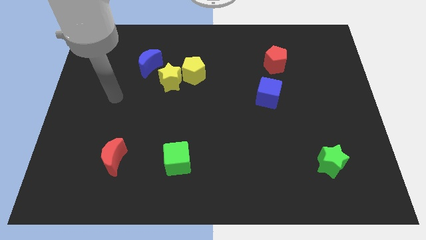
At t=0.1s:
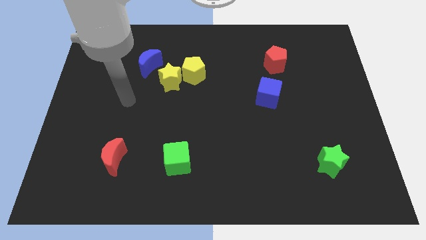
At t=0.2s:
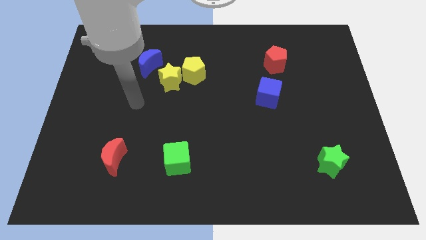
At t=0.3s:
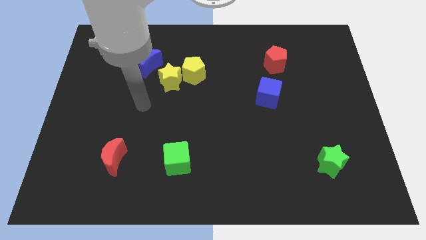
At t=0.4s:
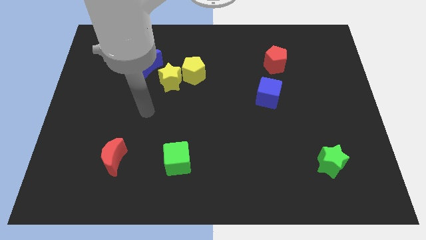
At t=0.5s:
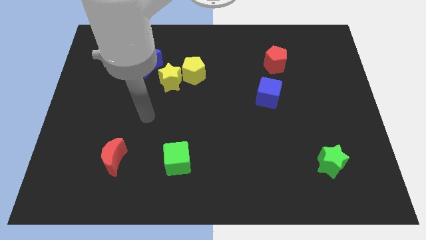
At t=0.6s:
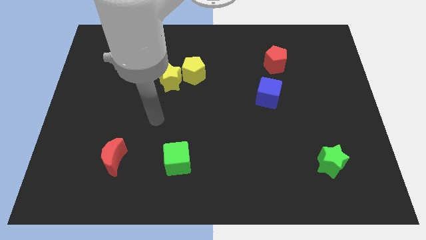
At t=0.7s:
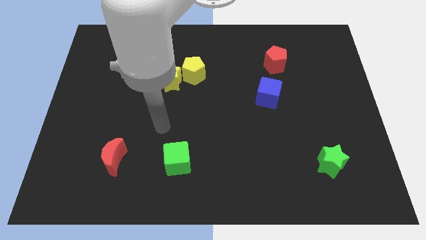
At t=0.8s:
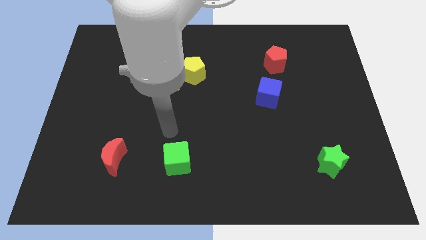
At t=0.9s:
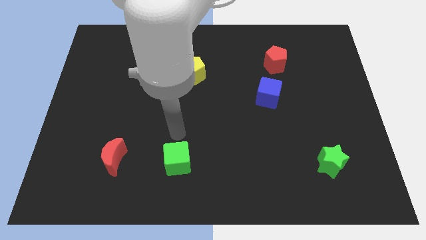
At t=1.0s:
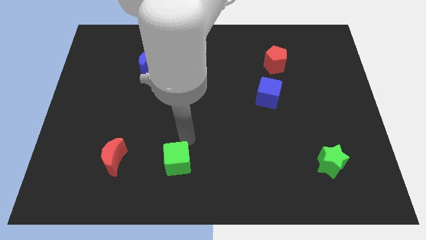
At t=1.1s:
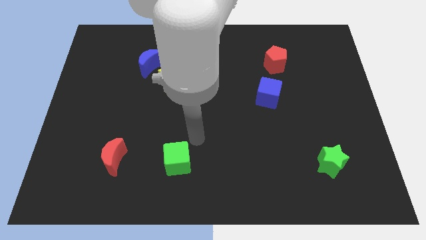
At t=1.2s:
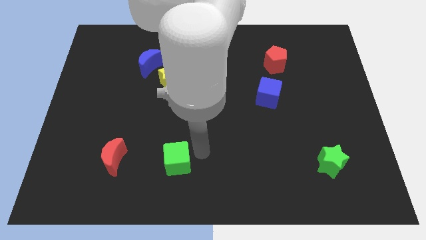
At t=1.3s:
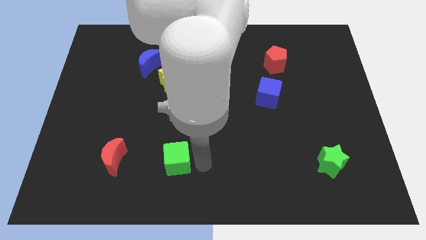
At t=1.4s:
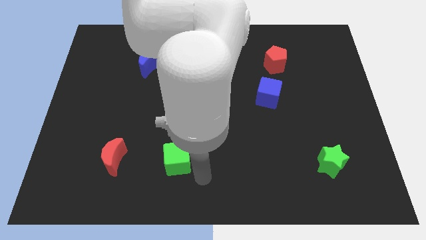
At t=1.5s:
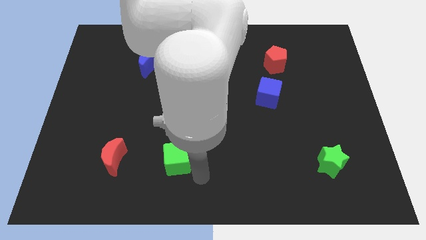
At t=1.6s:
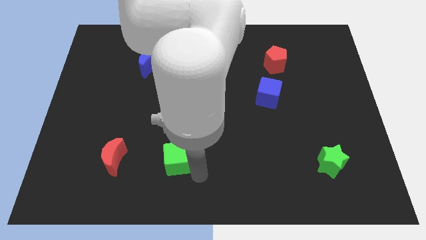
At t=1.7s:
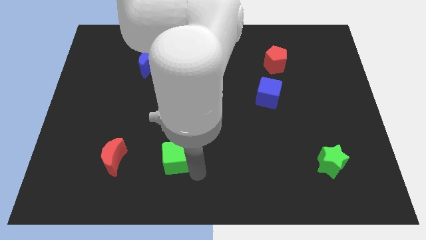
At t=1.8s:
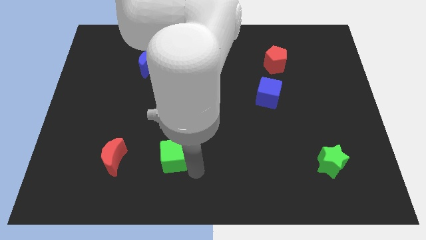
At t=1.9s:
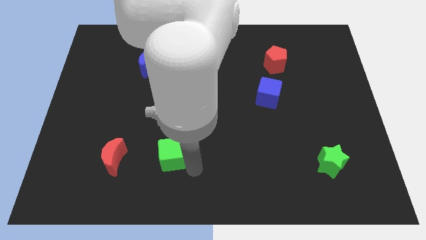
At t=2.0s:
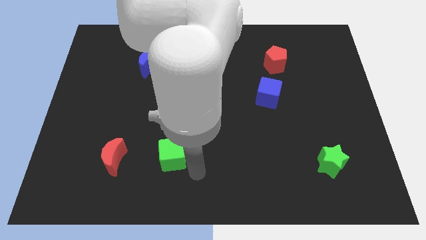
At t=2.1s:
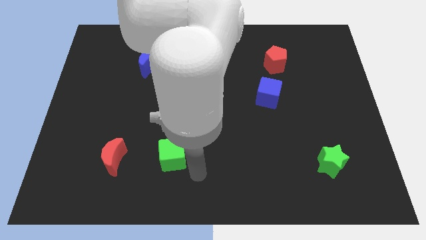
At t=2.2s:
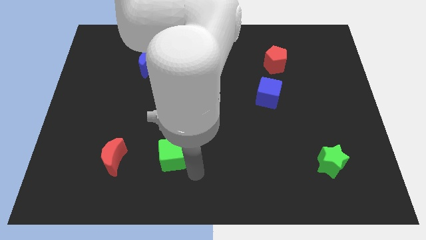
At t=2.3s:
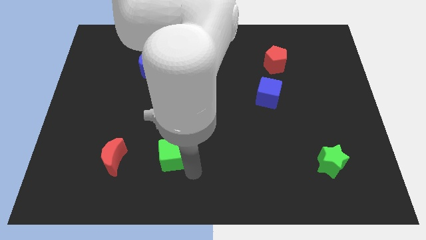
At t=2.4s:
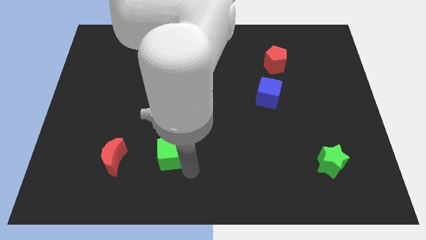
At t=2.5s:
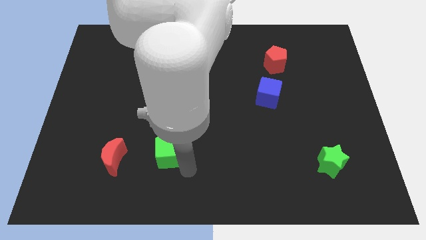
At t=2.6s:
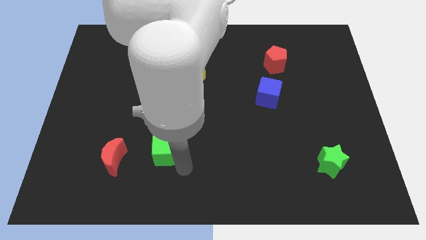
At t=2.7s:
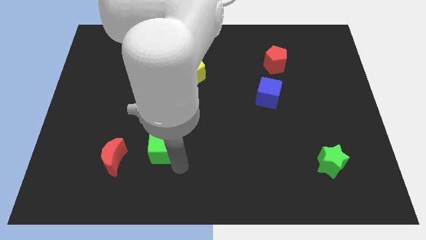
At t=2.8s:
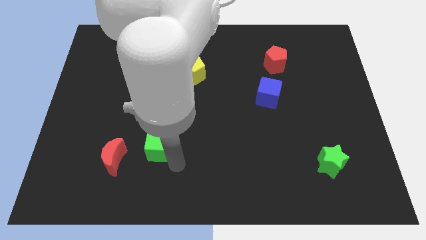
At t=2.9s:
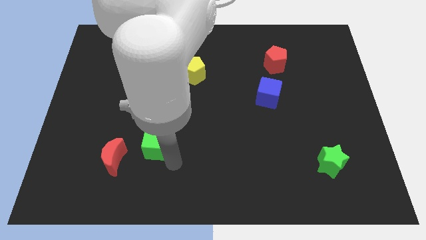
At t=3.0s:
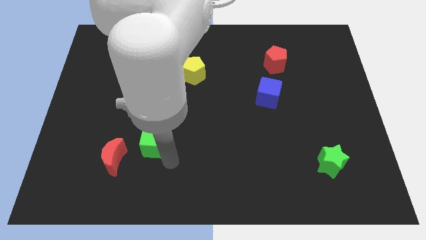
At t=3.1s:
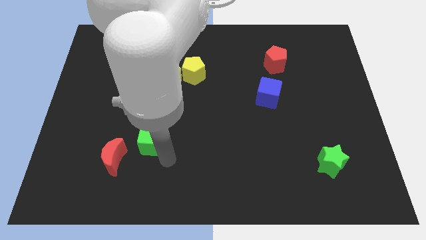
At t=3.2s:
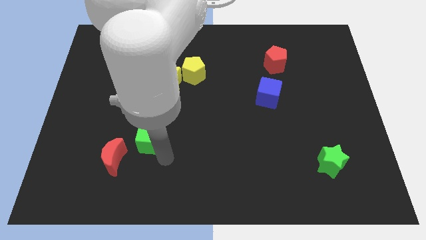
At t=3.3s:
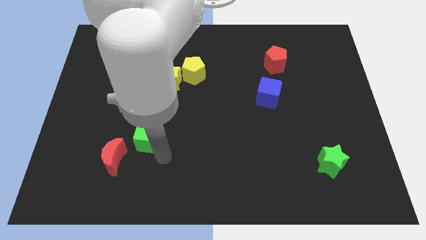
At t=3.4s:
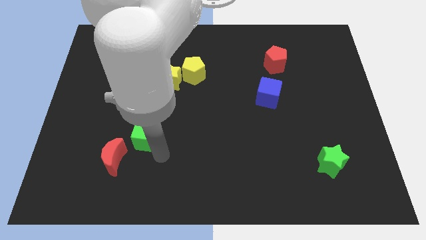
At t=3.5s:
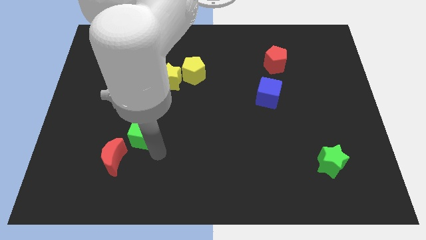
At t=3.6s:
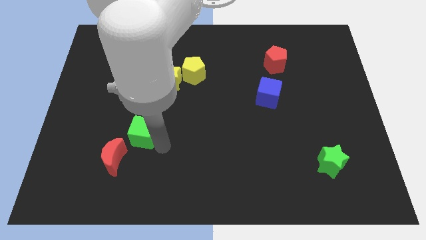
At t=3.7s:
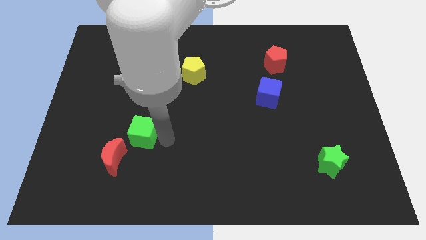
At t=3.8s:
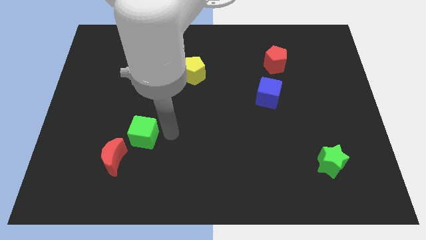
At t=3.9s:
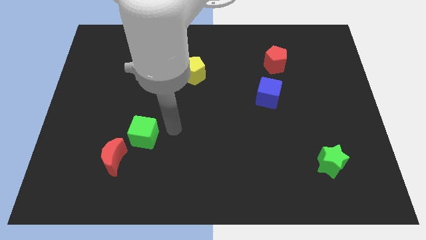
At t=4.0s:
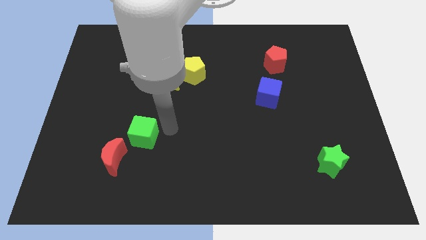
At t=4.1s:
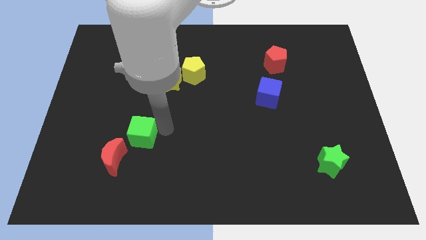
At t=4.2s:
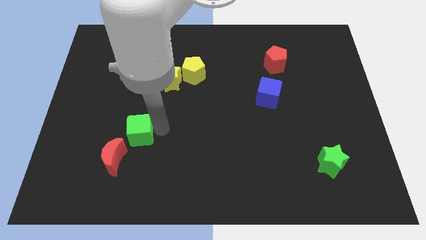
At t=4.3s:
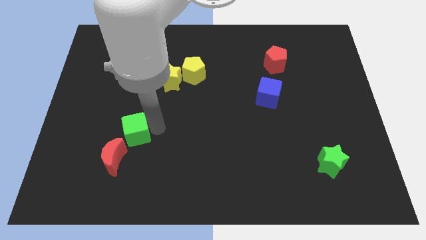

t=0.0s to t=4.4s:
slightly push the green cube to the left

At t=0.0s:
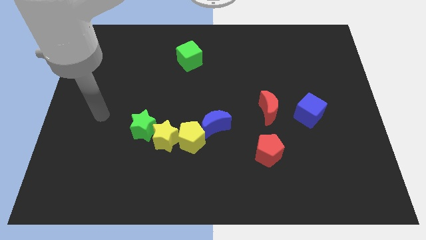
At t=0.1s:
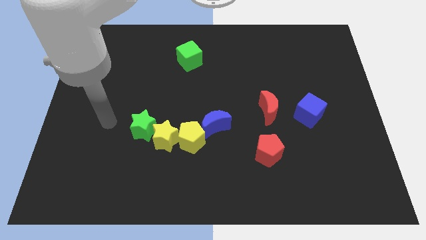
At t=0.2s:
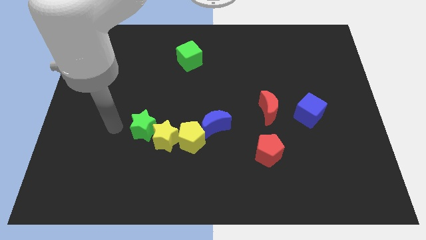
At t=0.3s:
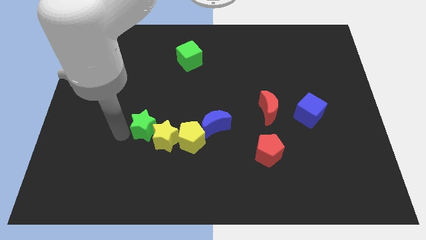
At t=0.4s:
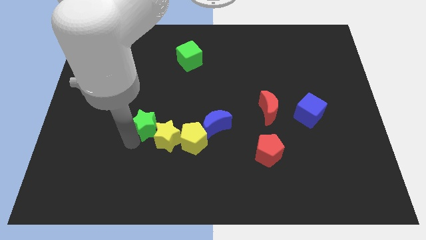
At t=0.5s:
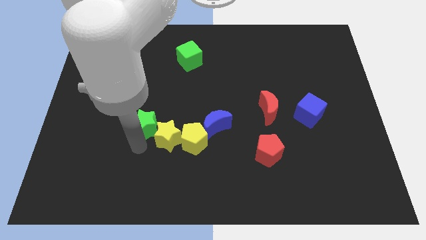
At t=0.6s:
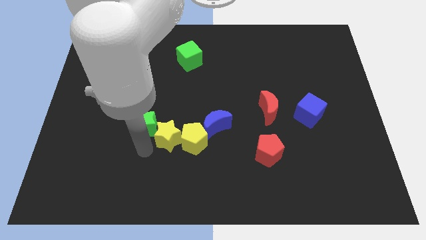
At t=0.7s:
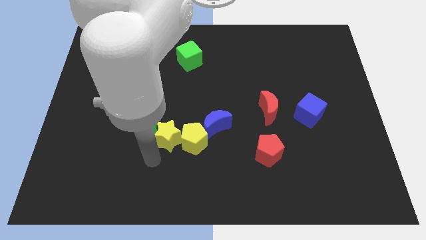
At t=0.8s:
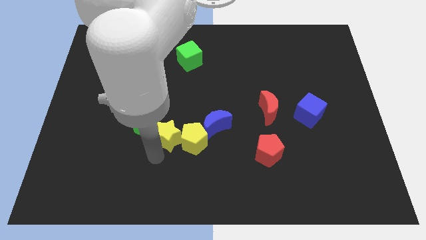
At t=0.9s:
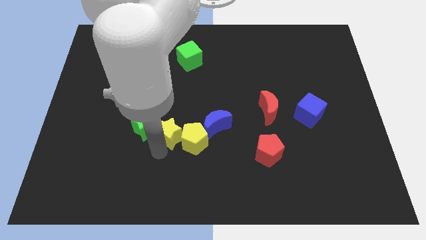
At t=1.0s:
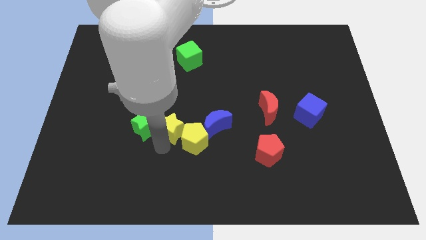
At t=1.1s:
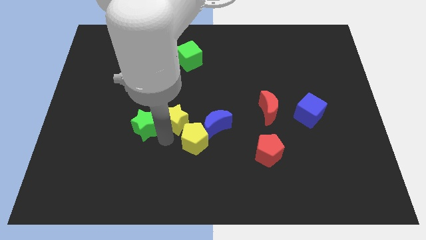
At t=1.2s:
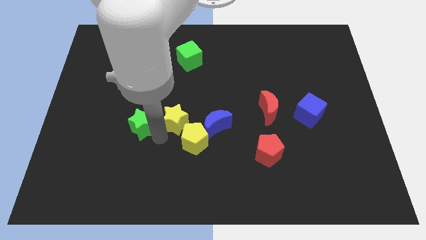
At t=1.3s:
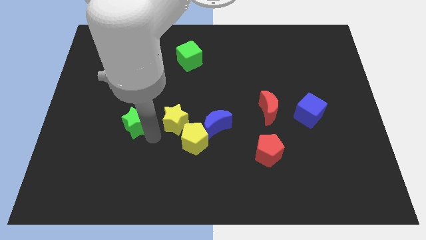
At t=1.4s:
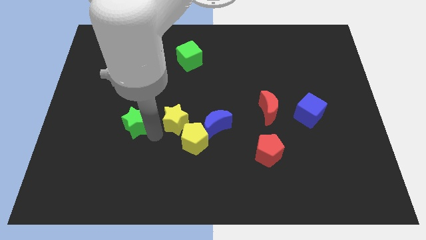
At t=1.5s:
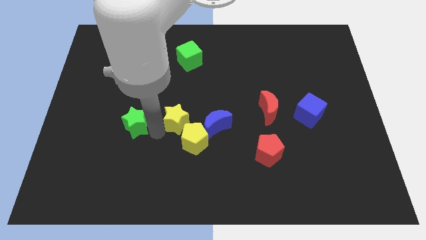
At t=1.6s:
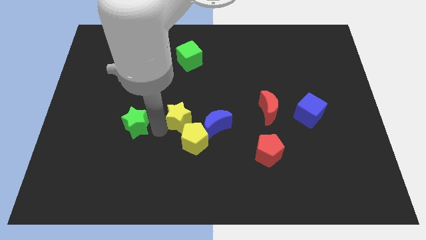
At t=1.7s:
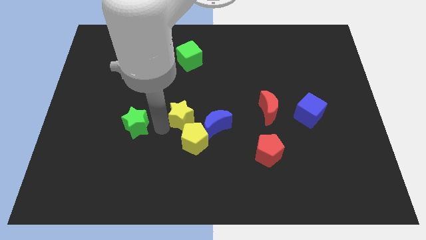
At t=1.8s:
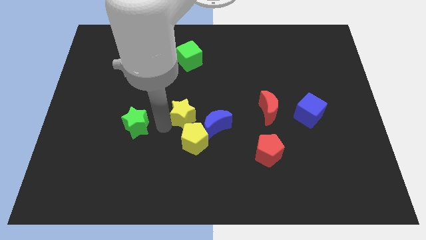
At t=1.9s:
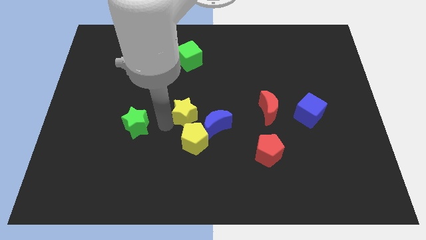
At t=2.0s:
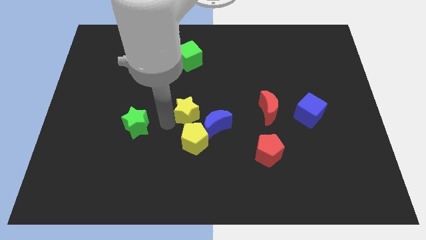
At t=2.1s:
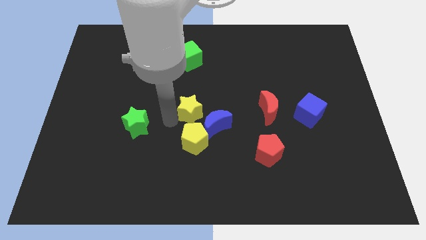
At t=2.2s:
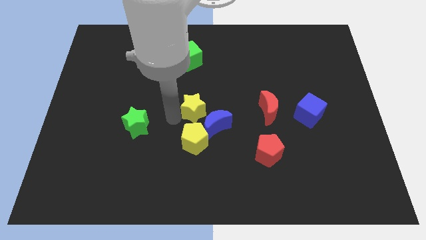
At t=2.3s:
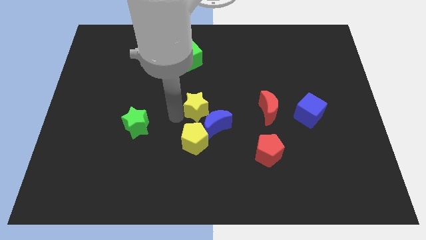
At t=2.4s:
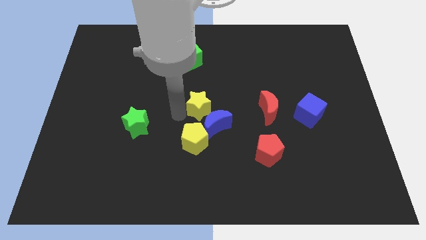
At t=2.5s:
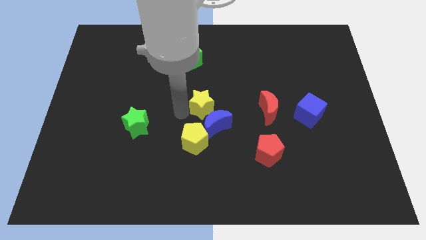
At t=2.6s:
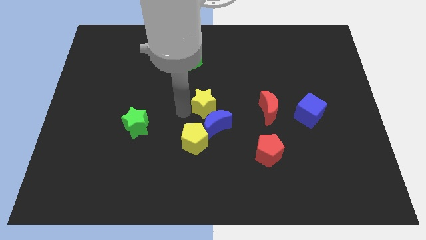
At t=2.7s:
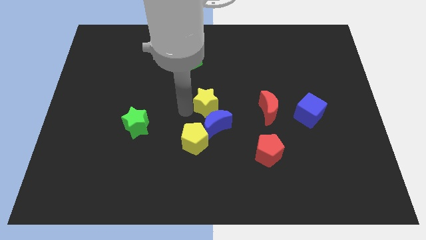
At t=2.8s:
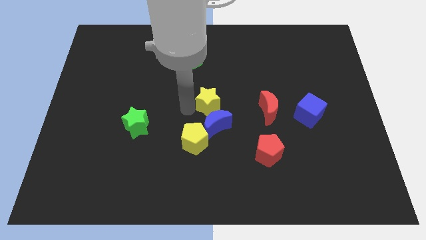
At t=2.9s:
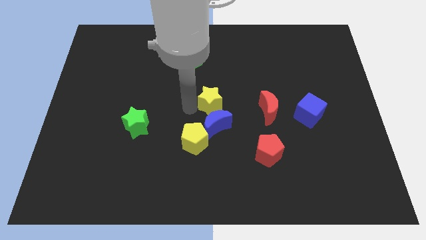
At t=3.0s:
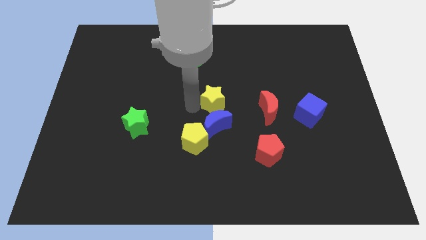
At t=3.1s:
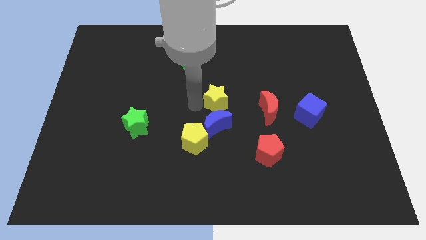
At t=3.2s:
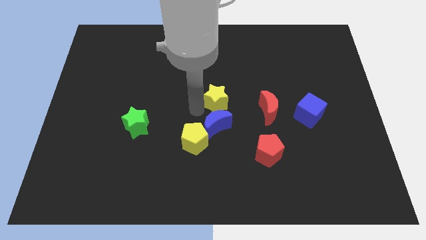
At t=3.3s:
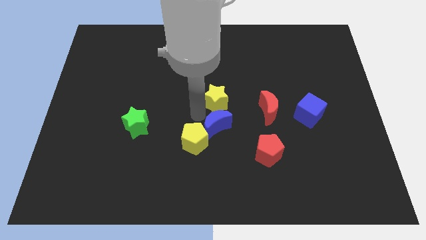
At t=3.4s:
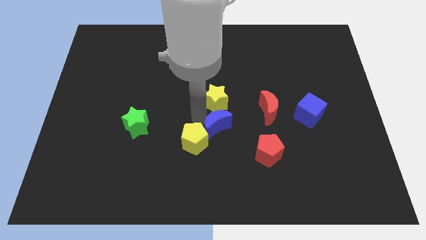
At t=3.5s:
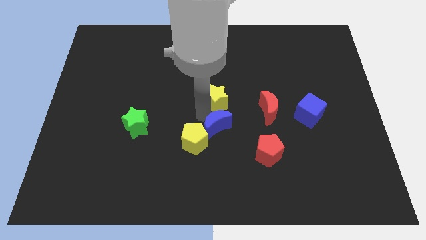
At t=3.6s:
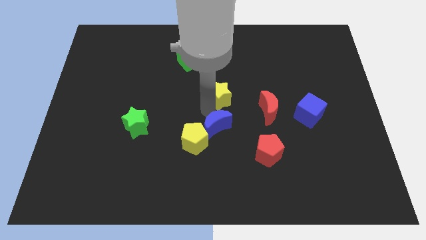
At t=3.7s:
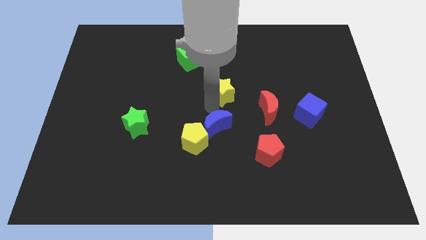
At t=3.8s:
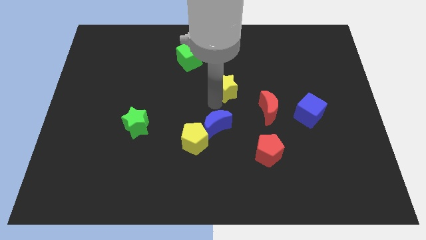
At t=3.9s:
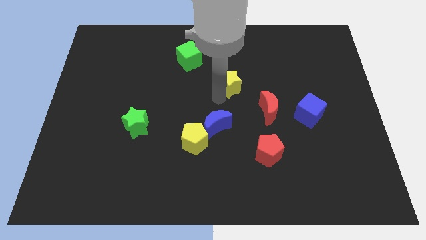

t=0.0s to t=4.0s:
slide the yellow star upwards and to the right diagonally
